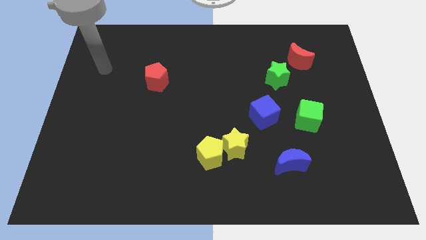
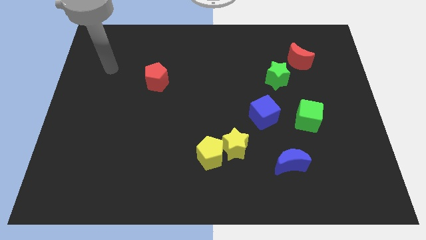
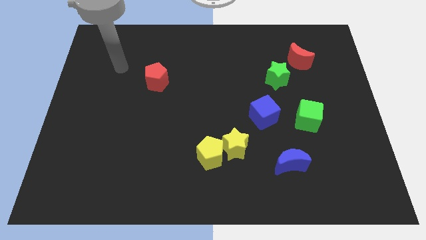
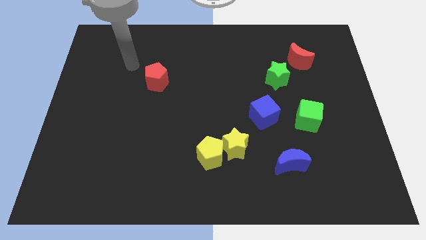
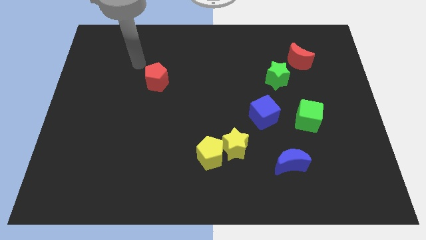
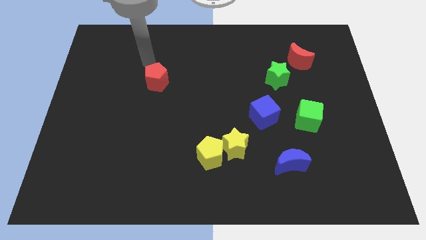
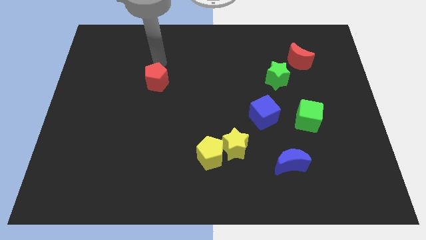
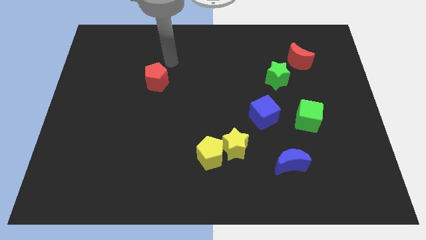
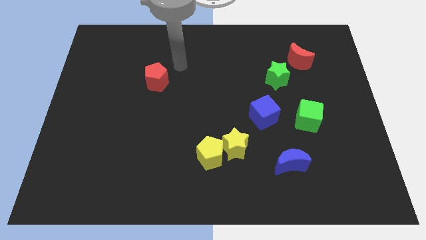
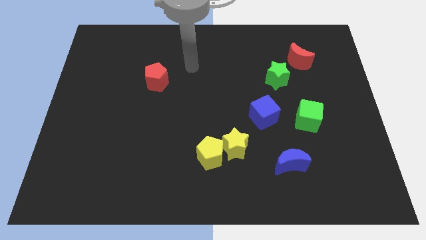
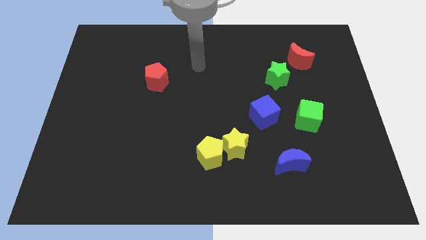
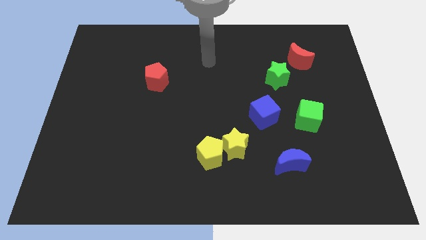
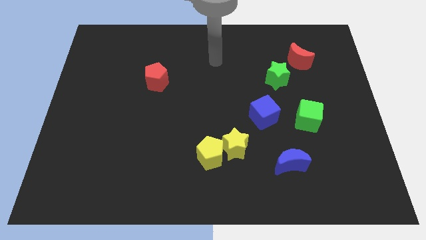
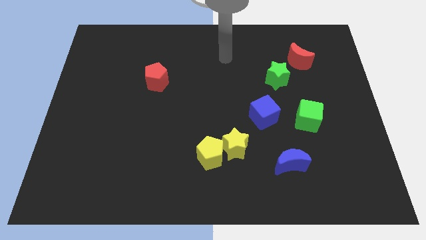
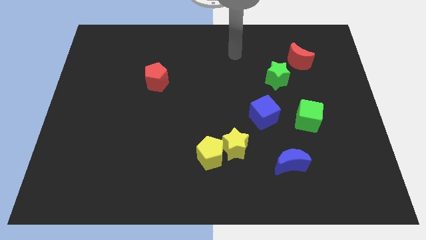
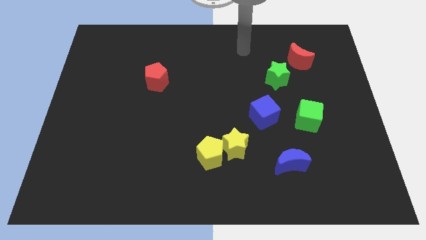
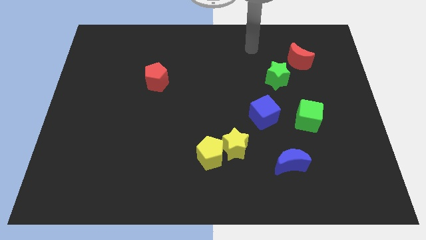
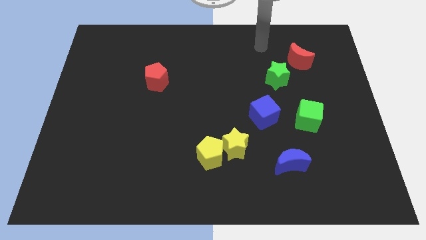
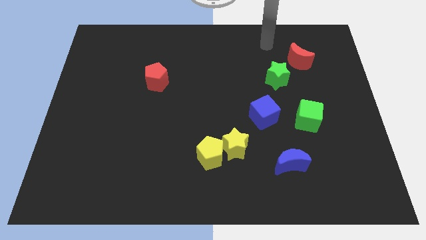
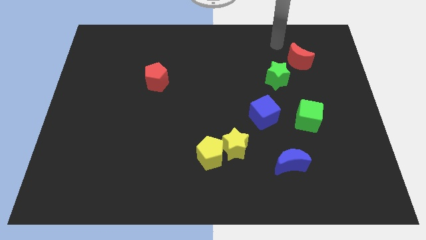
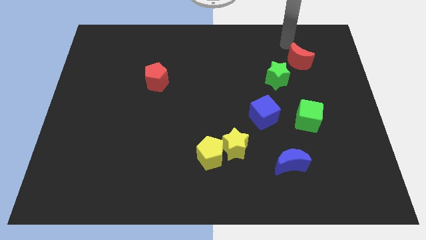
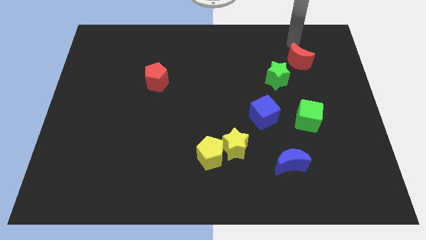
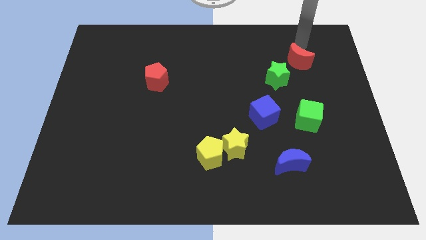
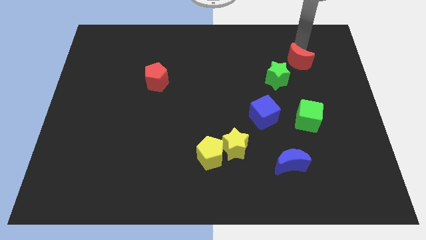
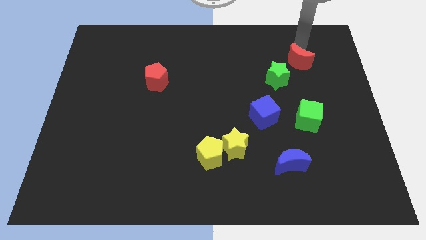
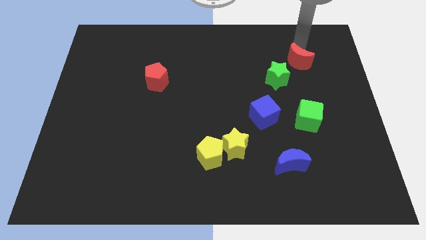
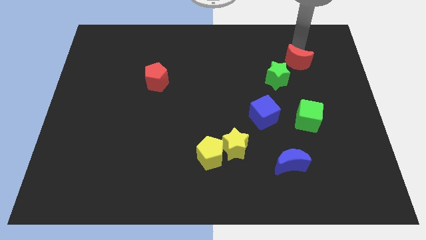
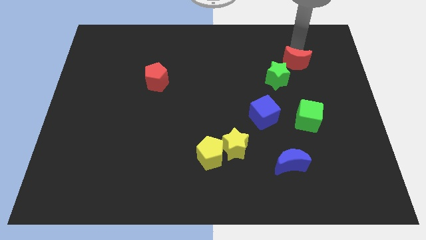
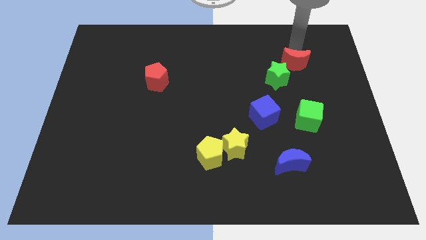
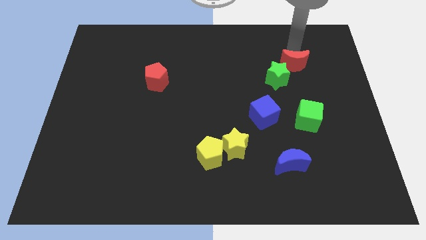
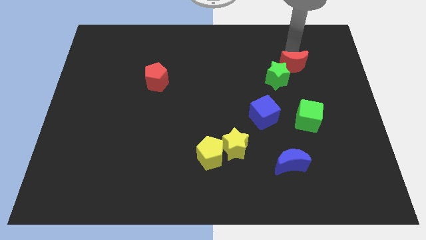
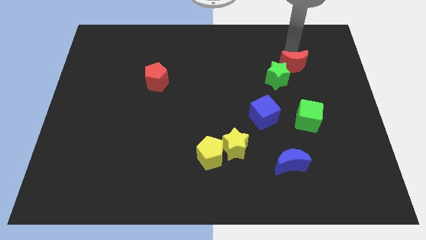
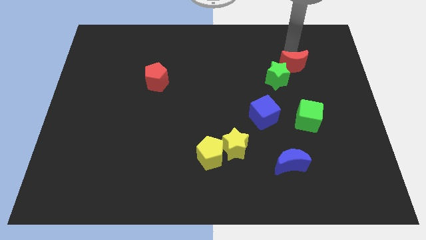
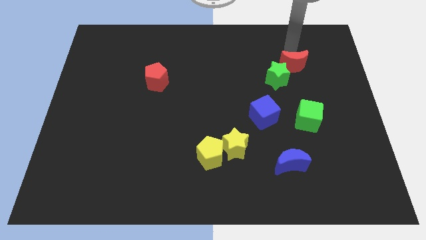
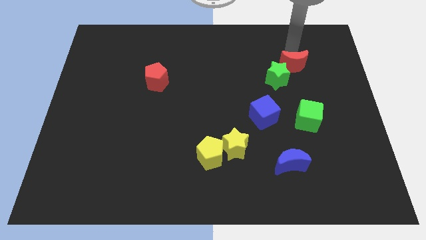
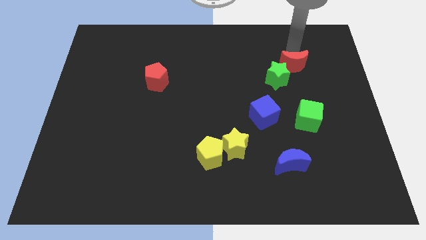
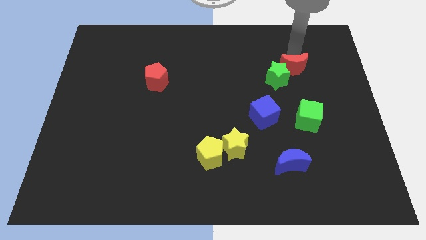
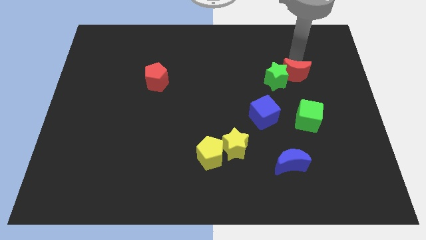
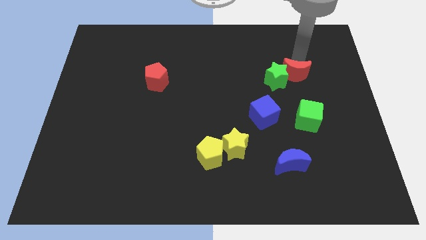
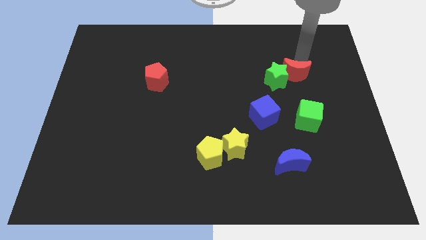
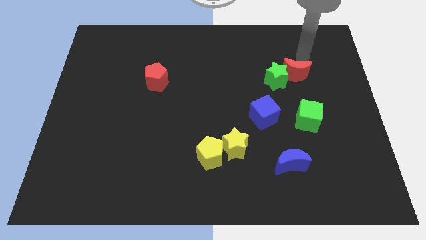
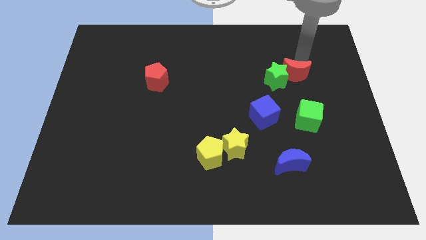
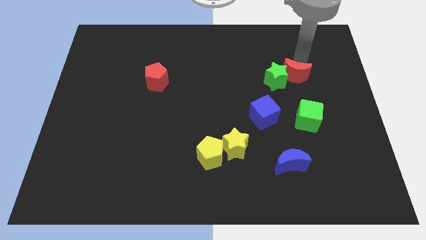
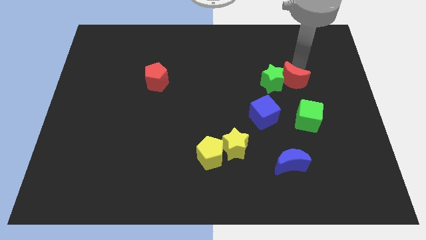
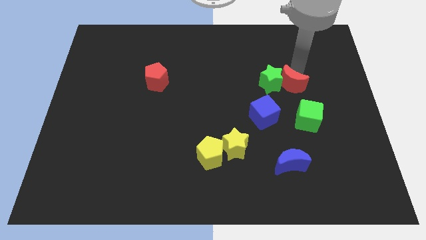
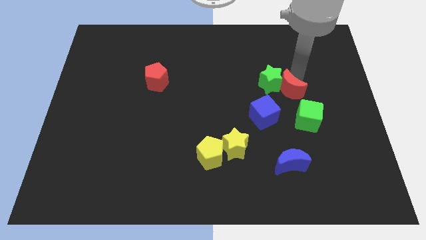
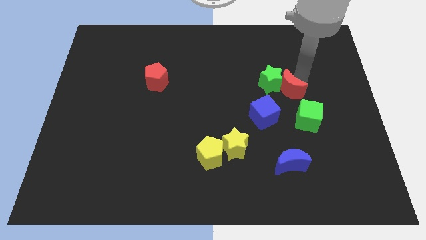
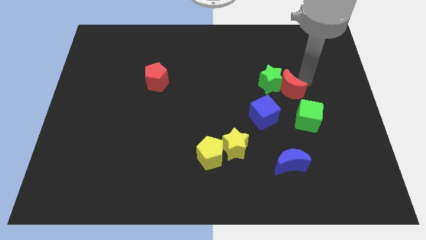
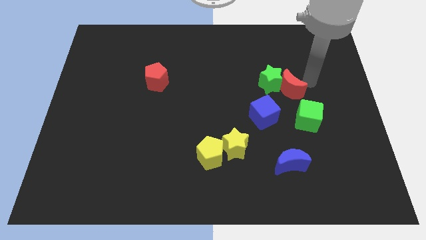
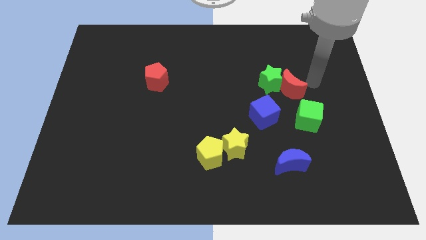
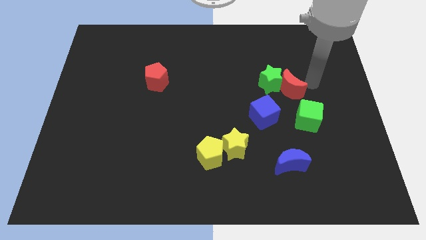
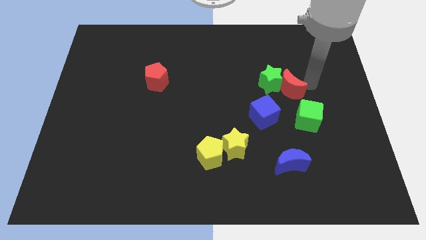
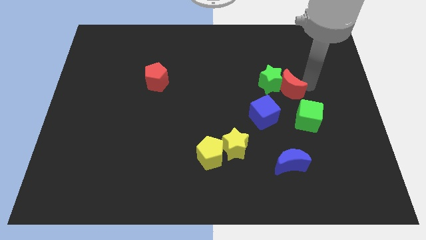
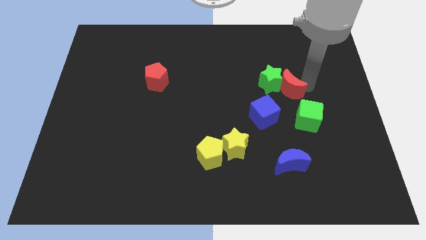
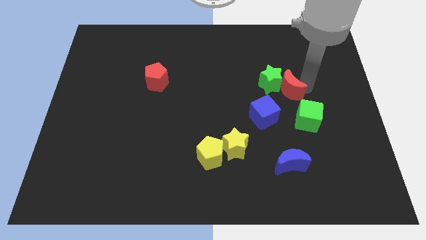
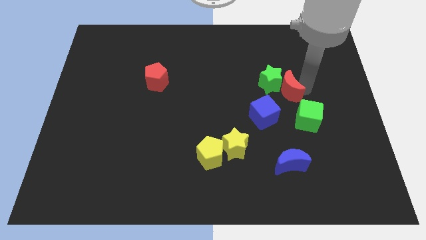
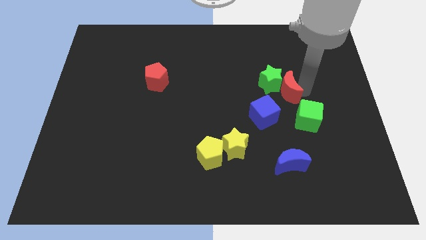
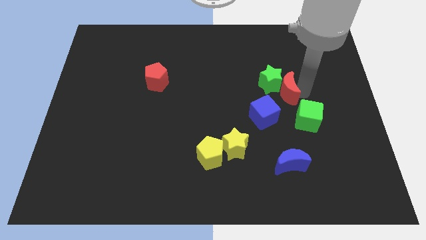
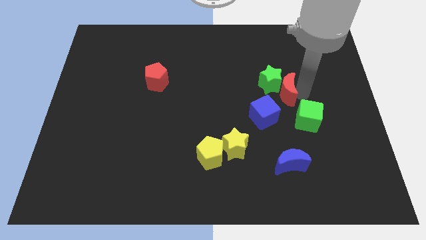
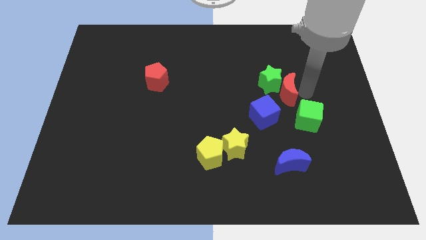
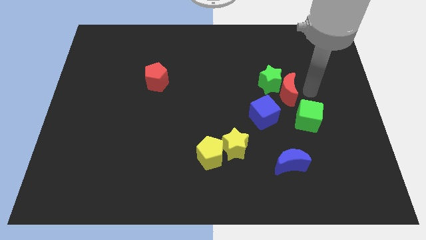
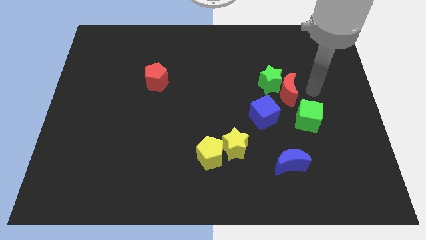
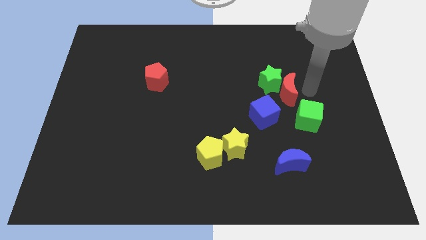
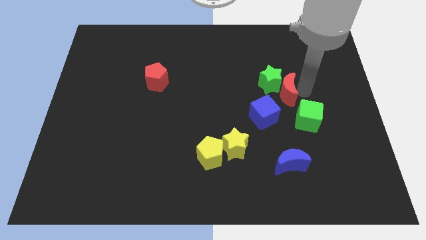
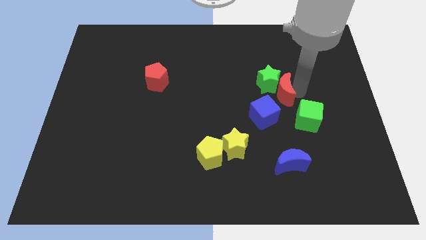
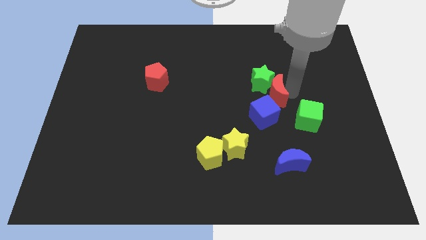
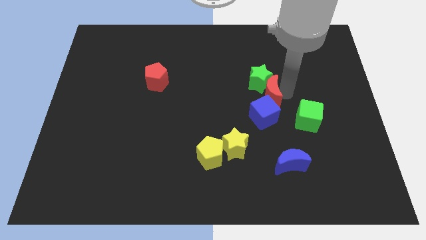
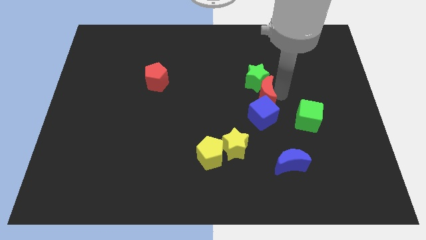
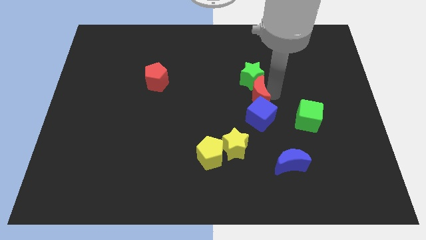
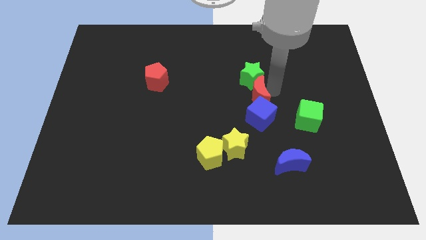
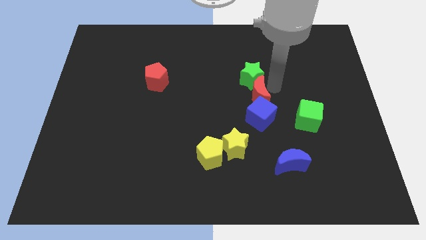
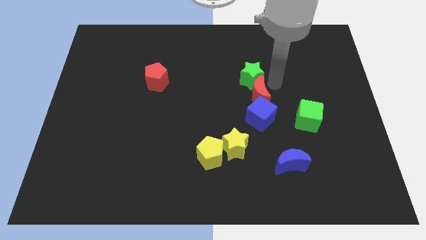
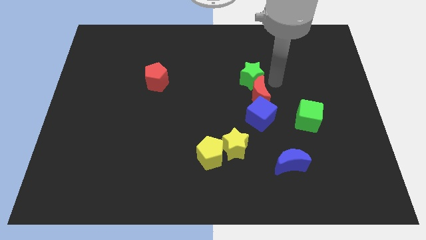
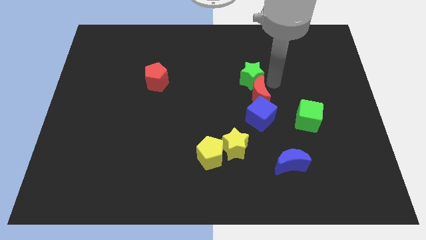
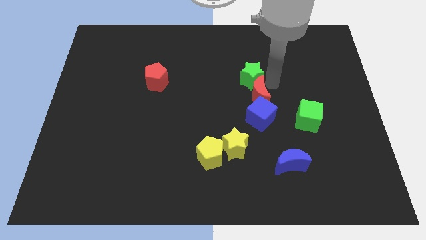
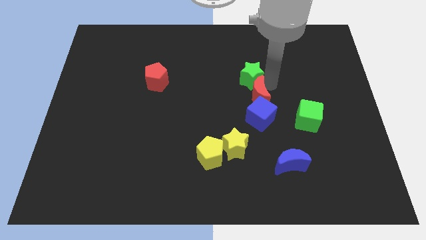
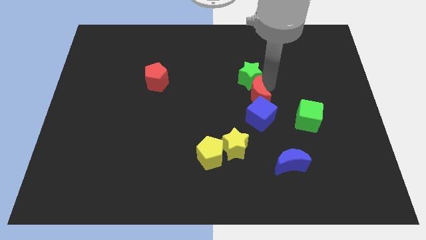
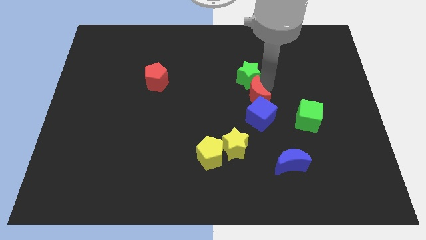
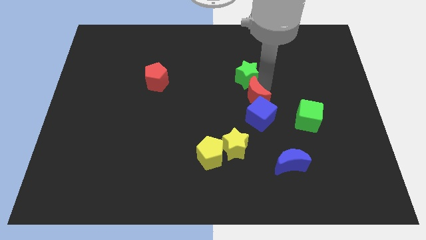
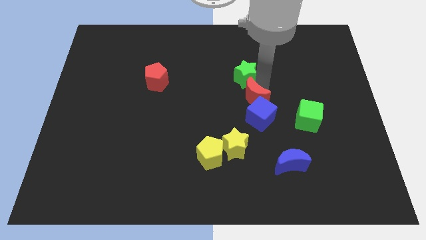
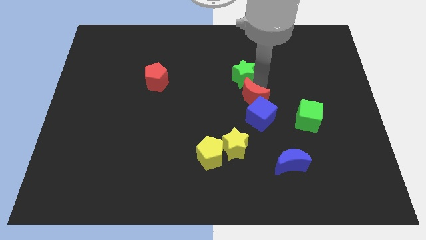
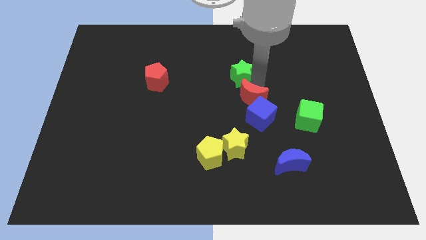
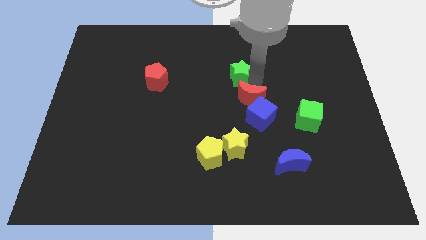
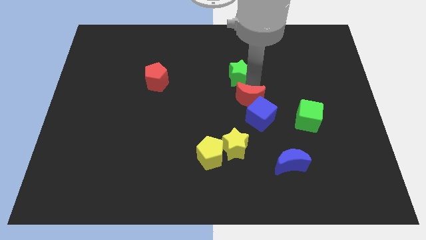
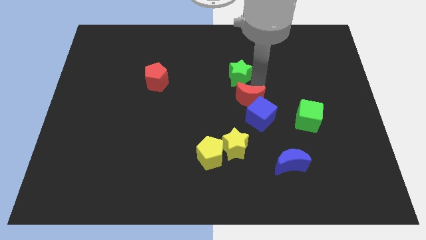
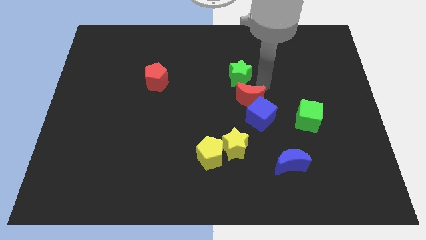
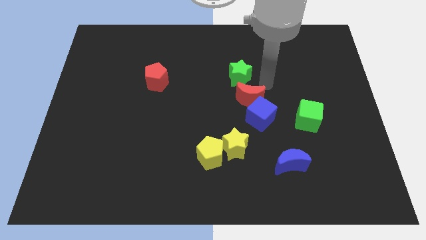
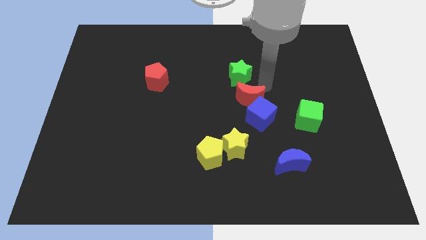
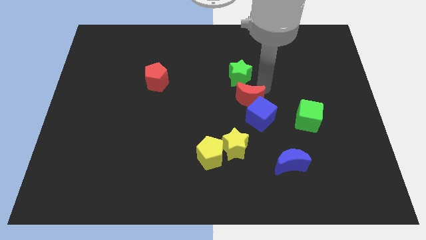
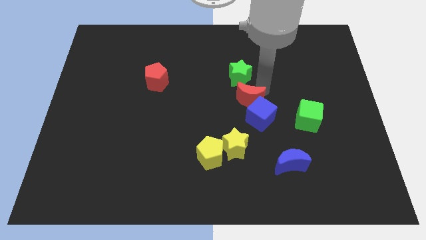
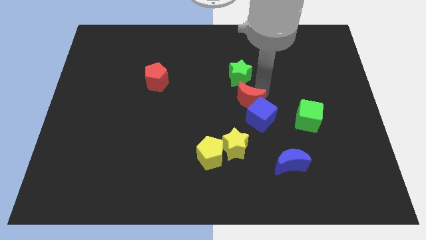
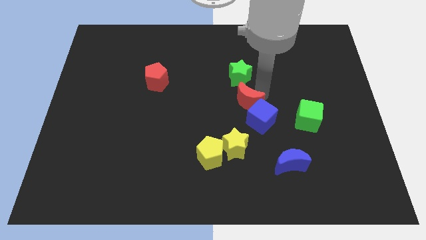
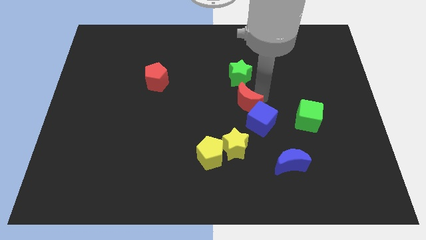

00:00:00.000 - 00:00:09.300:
slide the red moon downwards and left diagonally
